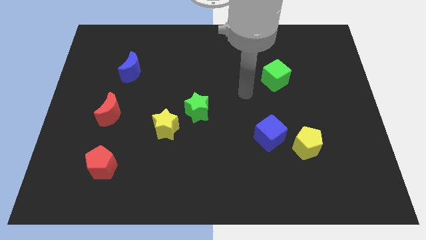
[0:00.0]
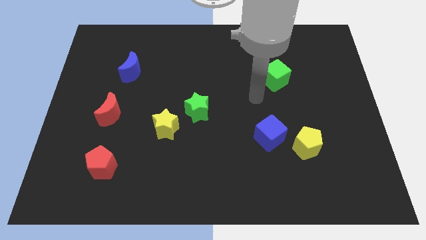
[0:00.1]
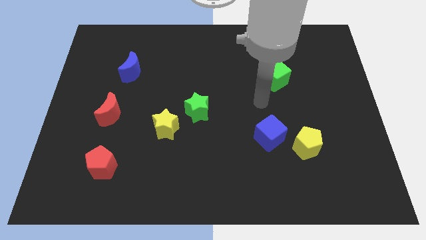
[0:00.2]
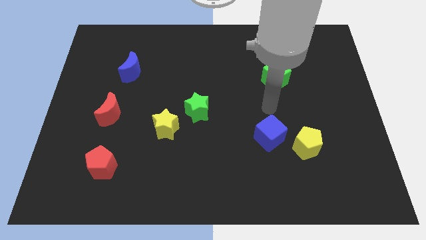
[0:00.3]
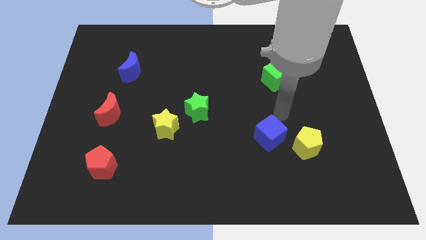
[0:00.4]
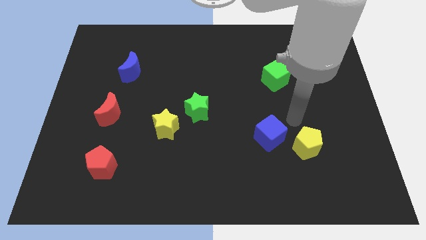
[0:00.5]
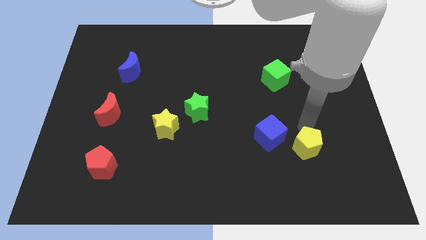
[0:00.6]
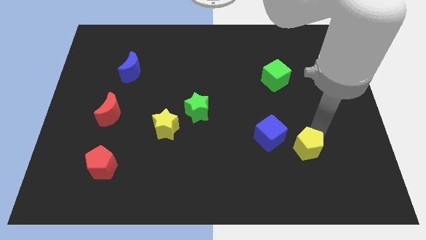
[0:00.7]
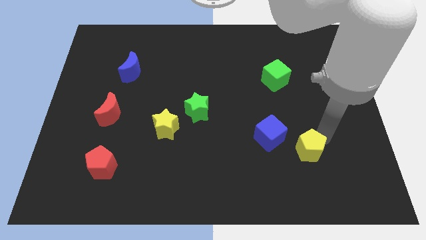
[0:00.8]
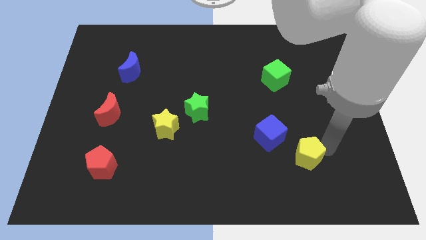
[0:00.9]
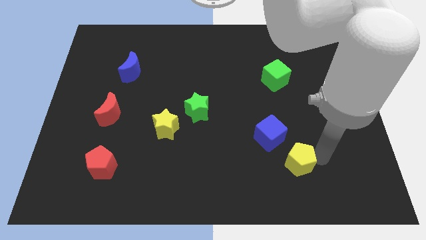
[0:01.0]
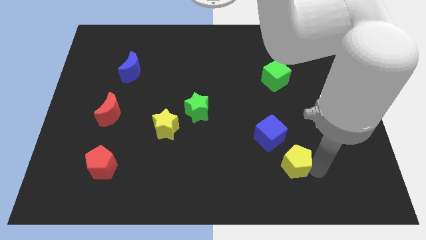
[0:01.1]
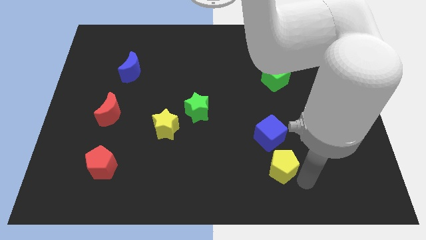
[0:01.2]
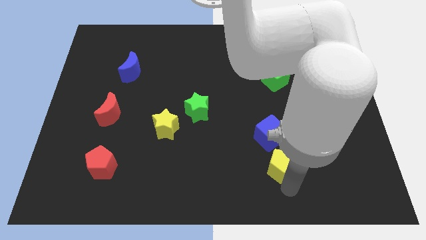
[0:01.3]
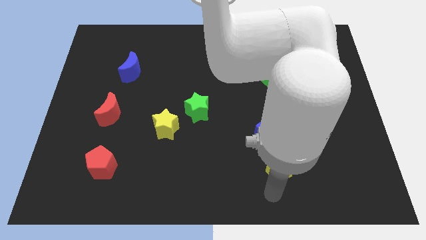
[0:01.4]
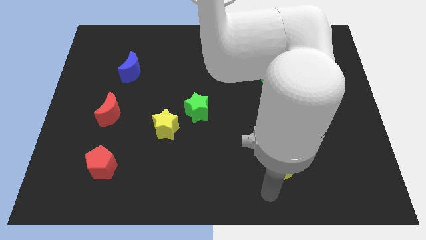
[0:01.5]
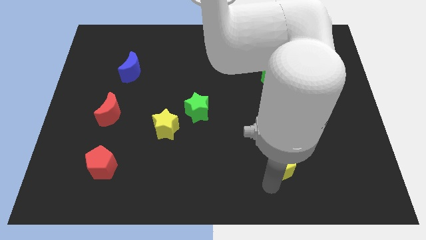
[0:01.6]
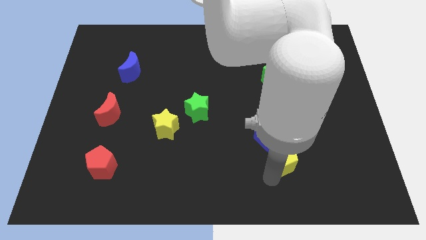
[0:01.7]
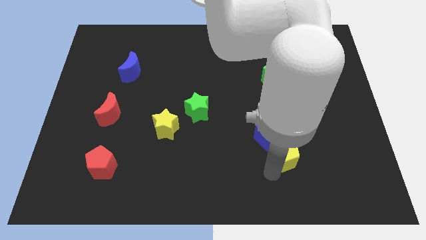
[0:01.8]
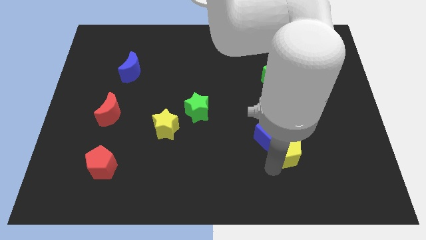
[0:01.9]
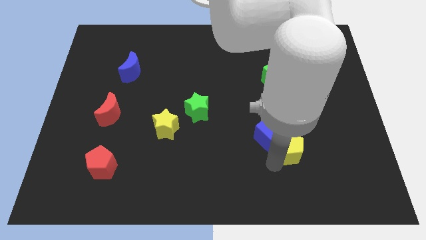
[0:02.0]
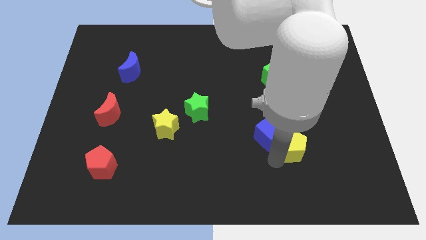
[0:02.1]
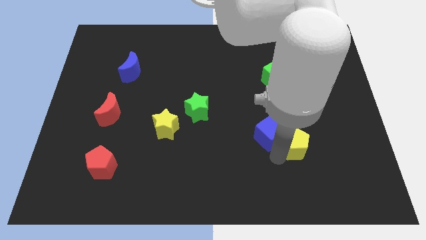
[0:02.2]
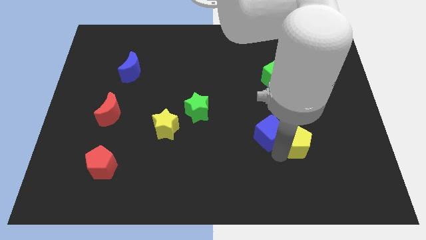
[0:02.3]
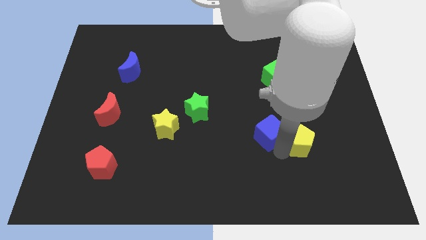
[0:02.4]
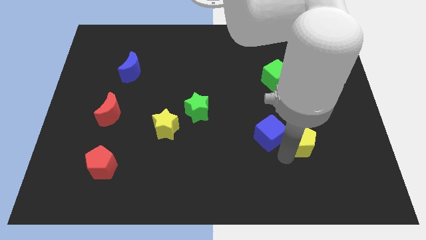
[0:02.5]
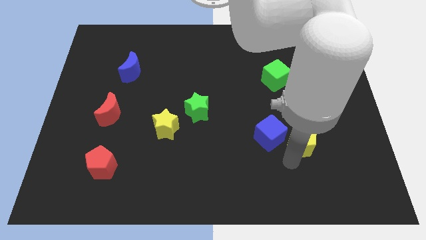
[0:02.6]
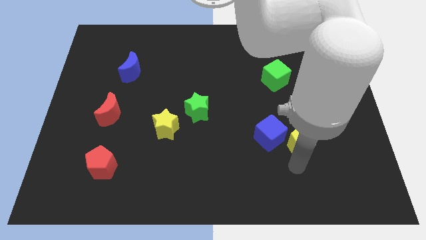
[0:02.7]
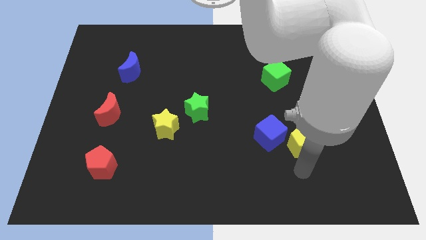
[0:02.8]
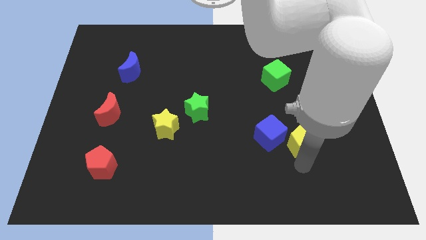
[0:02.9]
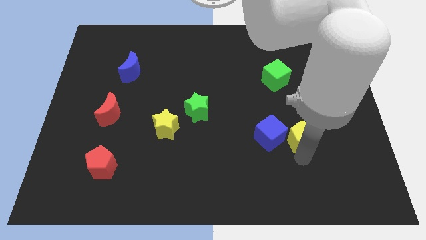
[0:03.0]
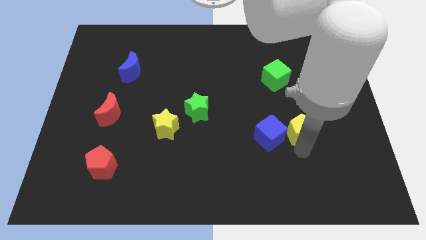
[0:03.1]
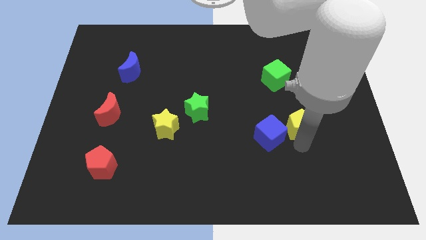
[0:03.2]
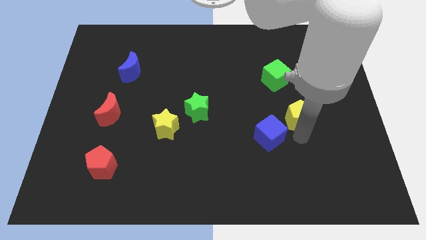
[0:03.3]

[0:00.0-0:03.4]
move the yellow pentagon a bit upwards

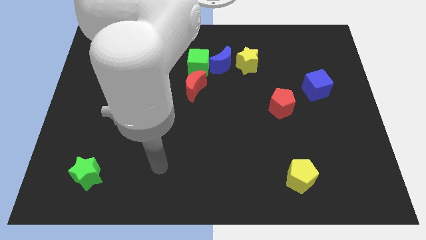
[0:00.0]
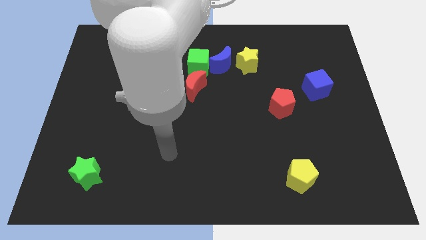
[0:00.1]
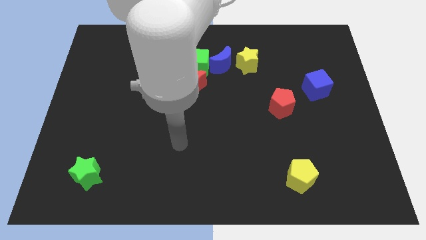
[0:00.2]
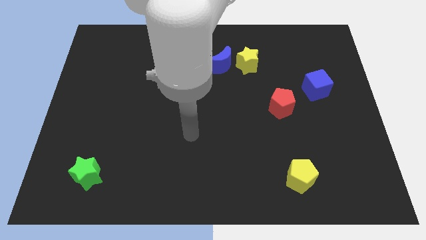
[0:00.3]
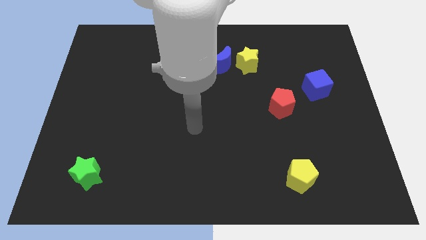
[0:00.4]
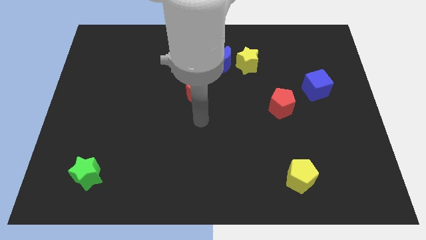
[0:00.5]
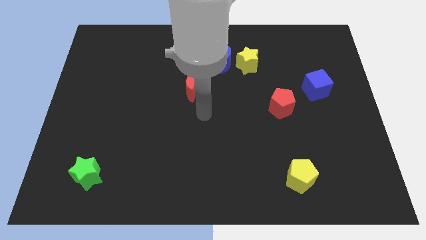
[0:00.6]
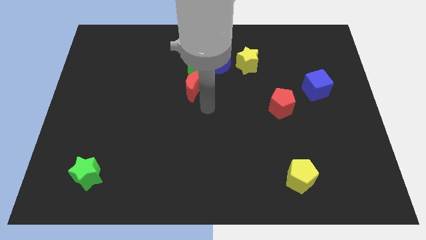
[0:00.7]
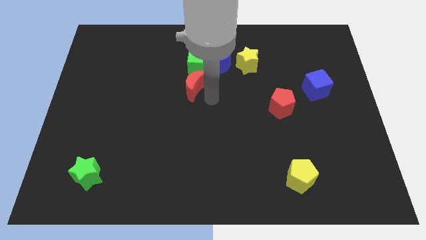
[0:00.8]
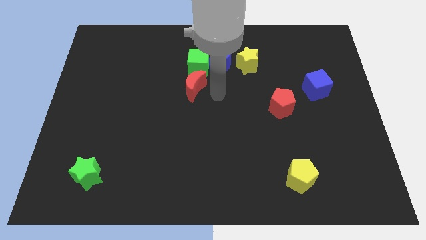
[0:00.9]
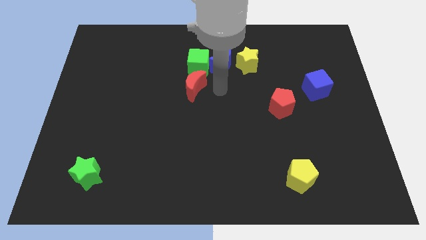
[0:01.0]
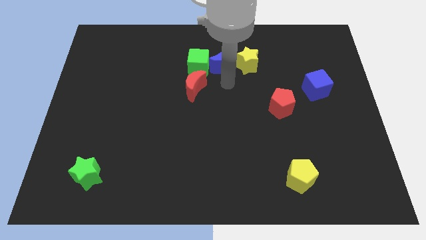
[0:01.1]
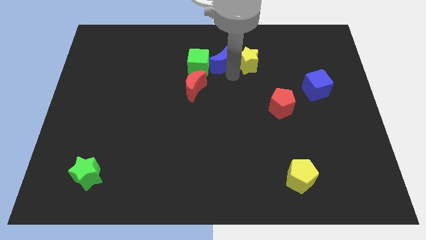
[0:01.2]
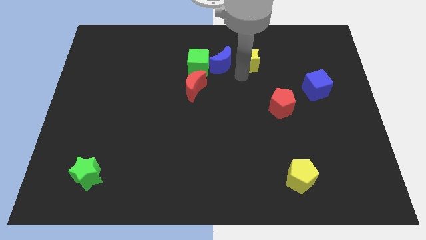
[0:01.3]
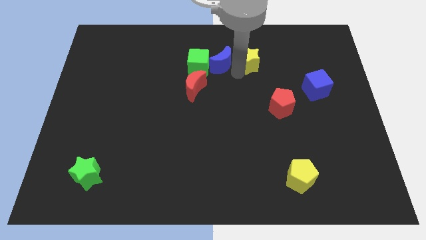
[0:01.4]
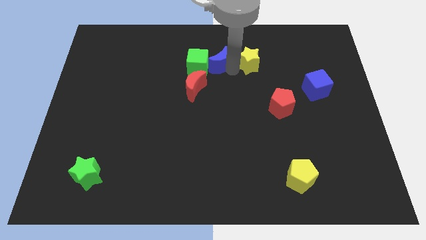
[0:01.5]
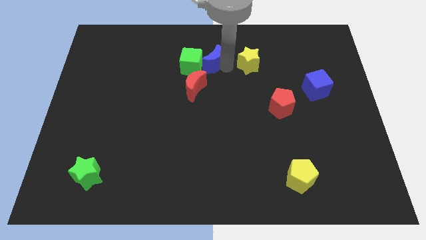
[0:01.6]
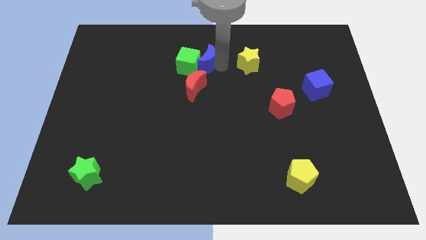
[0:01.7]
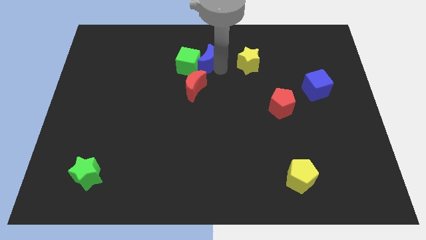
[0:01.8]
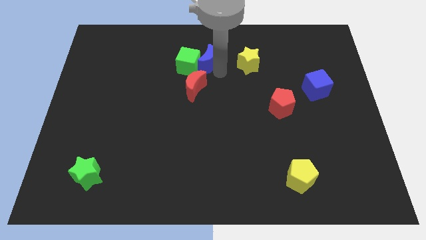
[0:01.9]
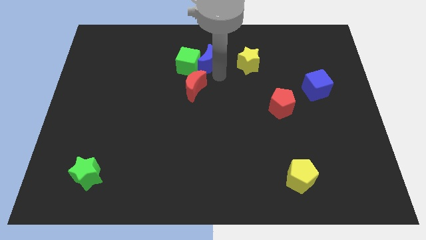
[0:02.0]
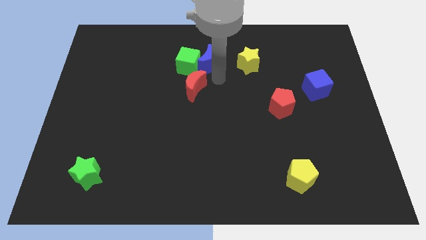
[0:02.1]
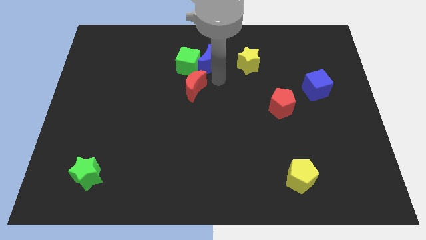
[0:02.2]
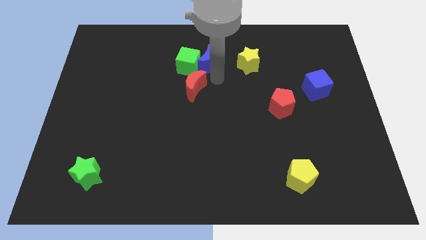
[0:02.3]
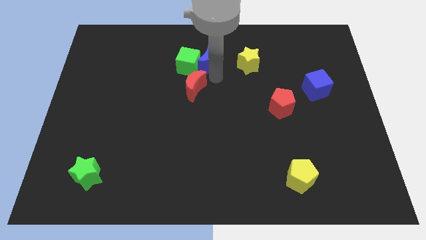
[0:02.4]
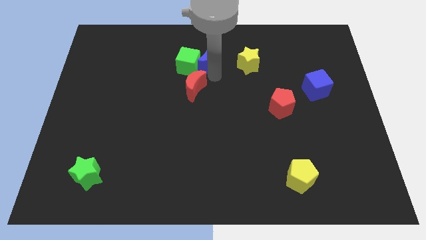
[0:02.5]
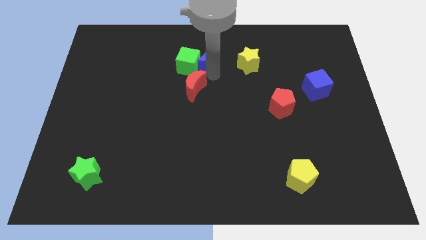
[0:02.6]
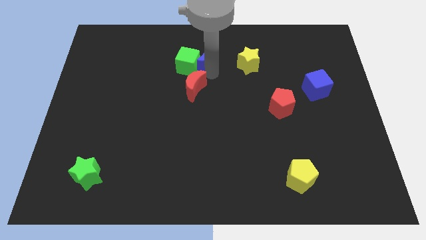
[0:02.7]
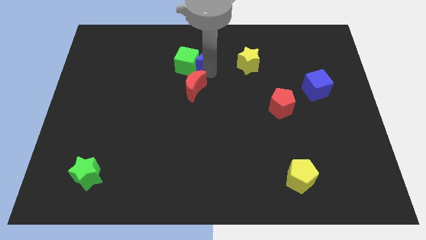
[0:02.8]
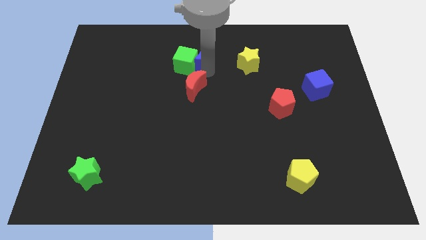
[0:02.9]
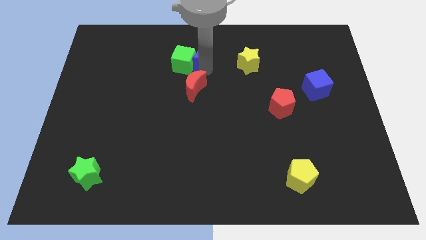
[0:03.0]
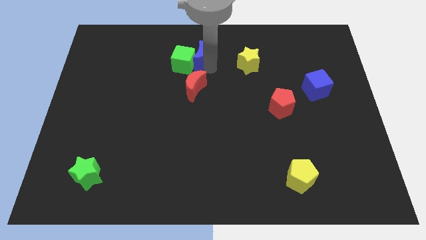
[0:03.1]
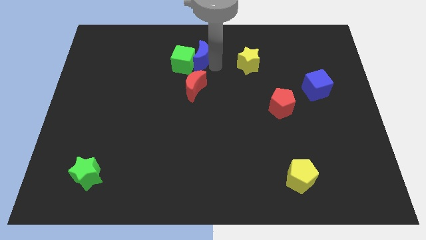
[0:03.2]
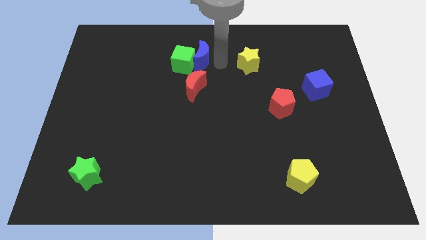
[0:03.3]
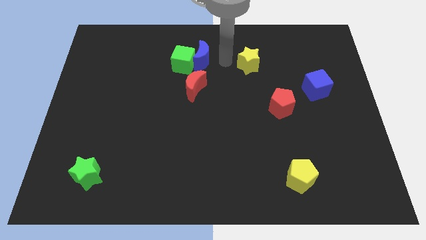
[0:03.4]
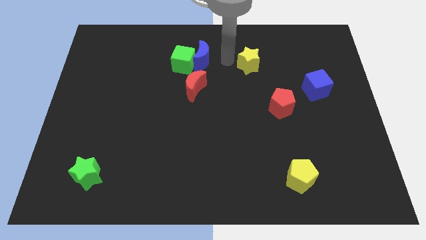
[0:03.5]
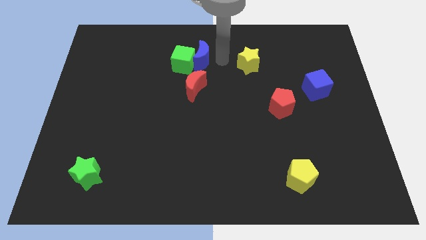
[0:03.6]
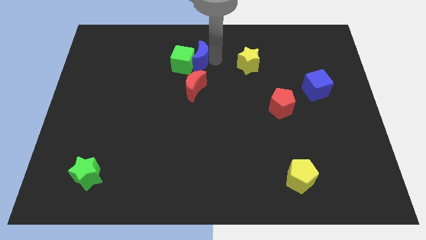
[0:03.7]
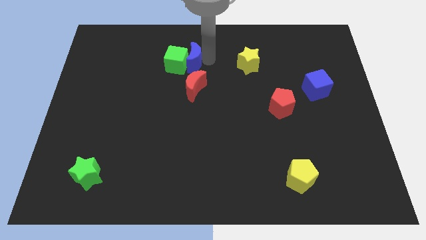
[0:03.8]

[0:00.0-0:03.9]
slide the blue moon to the left a little bit

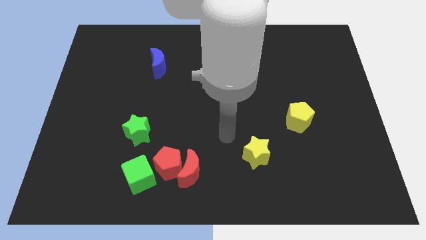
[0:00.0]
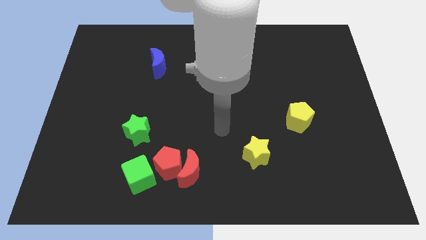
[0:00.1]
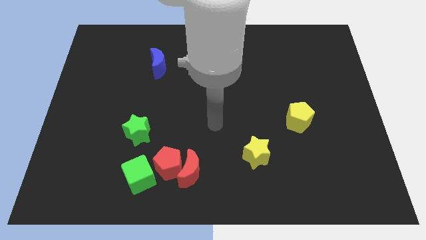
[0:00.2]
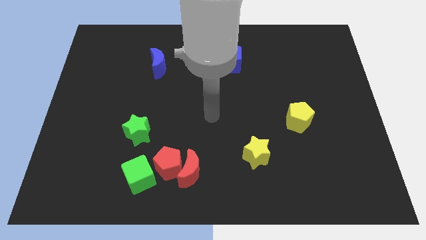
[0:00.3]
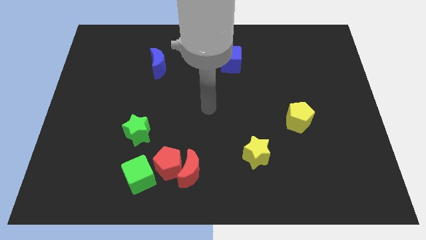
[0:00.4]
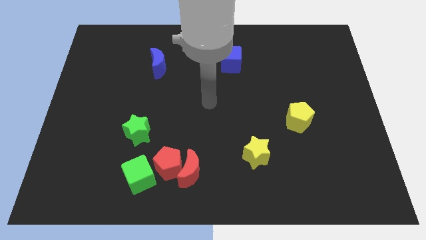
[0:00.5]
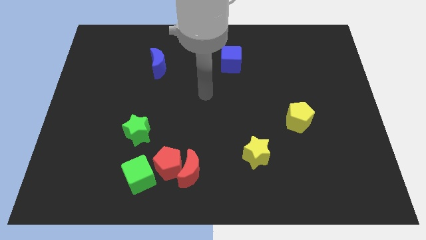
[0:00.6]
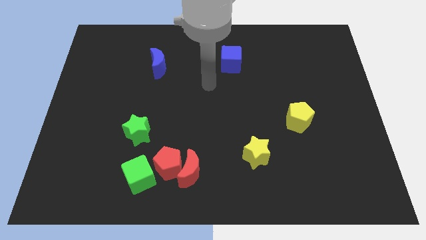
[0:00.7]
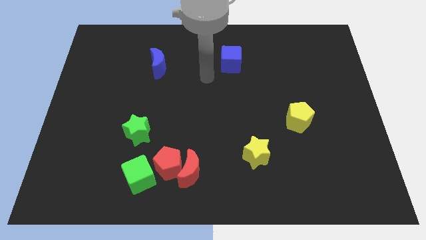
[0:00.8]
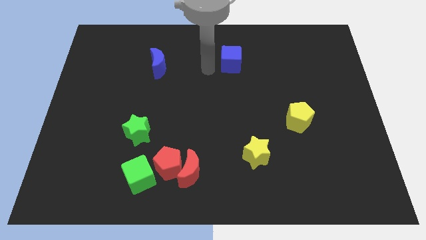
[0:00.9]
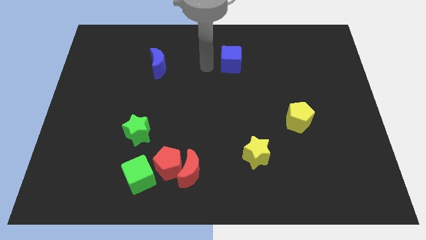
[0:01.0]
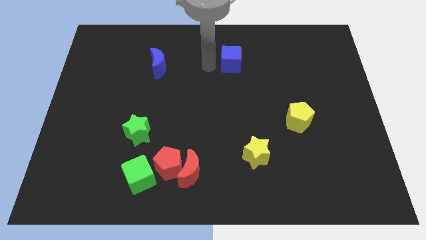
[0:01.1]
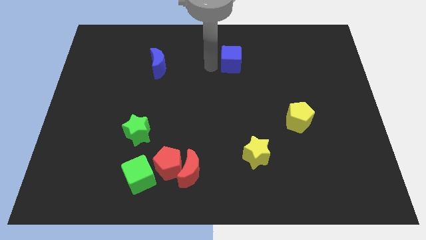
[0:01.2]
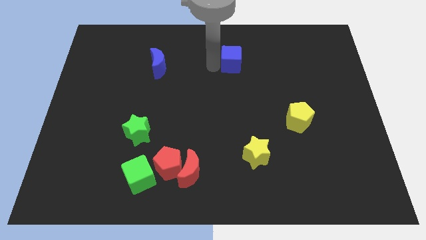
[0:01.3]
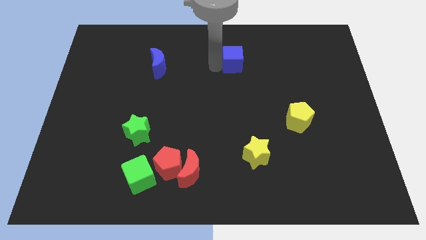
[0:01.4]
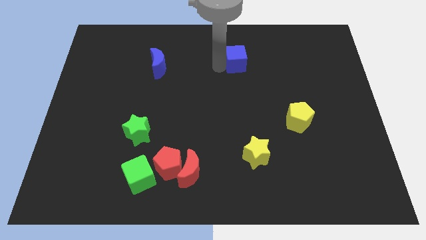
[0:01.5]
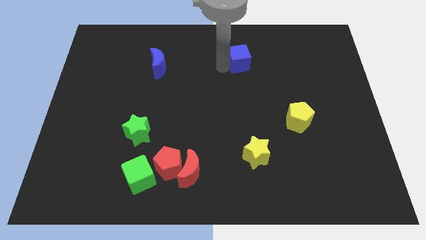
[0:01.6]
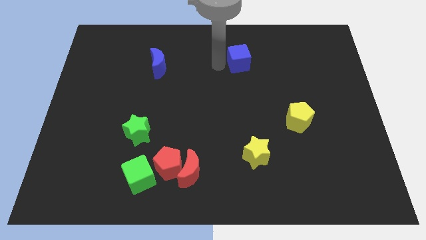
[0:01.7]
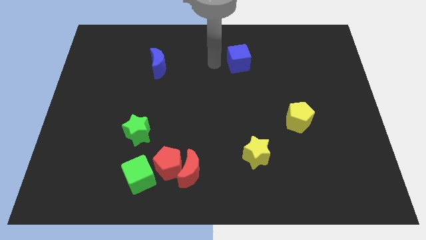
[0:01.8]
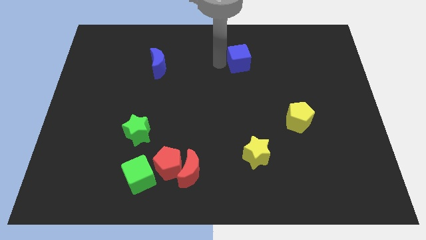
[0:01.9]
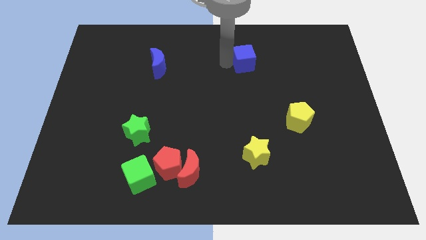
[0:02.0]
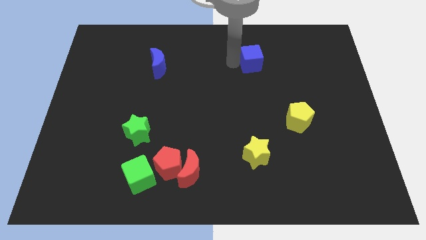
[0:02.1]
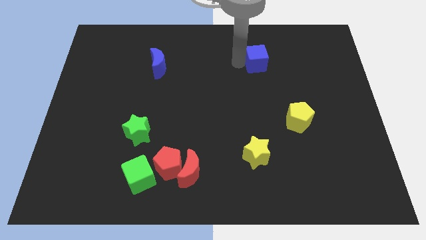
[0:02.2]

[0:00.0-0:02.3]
move the blue cube a bit right
